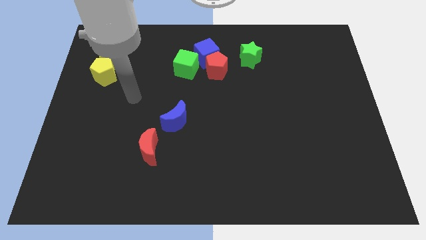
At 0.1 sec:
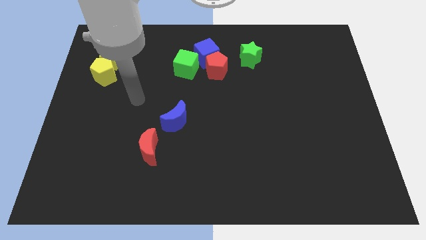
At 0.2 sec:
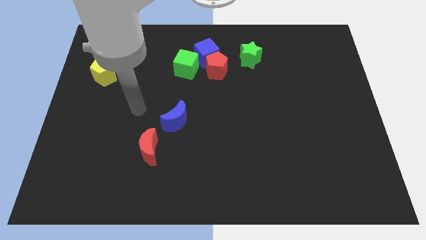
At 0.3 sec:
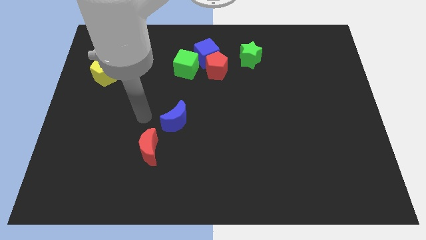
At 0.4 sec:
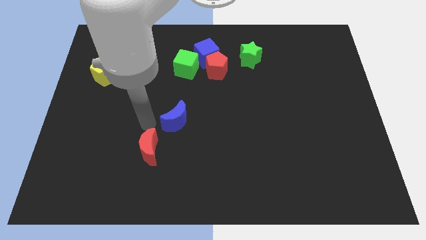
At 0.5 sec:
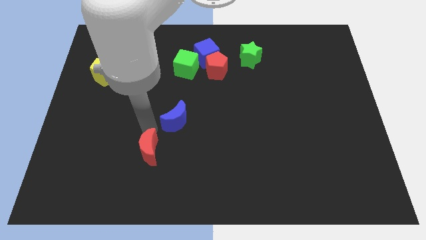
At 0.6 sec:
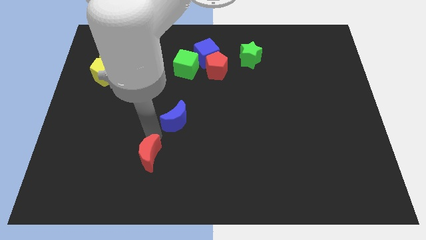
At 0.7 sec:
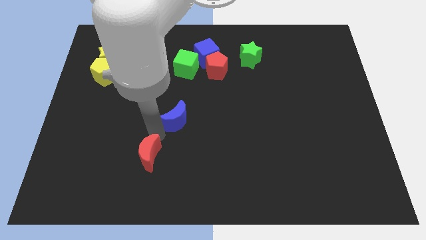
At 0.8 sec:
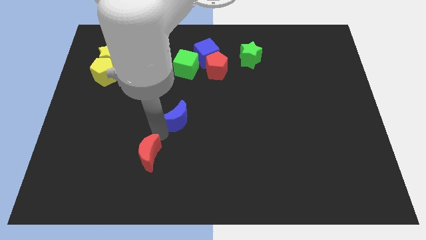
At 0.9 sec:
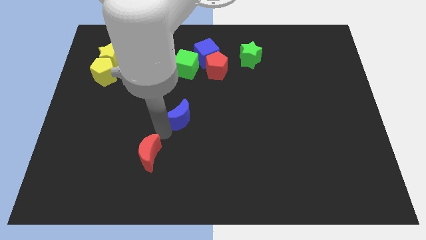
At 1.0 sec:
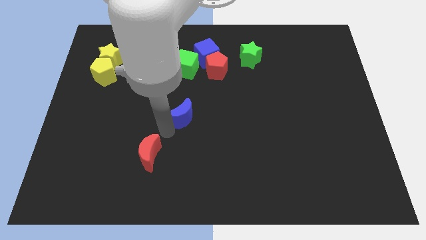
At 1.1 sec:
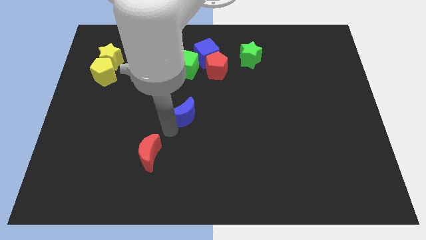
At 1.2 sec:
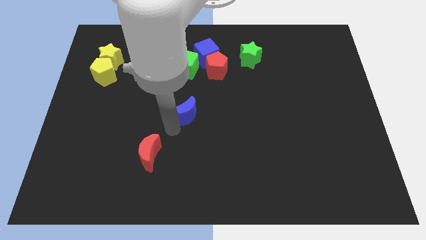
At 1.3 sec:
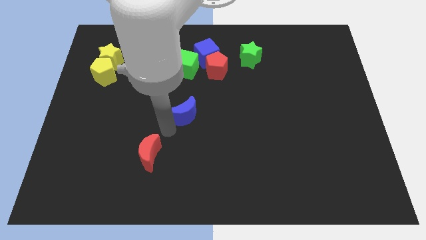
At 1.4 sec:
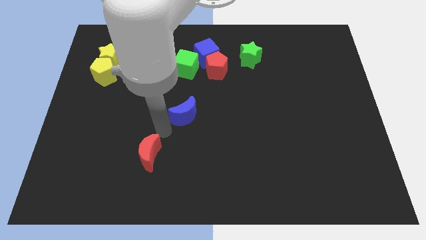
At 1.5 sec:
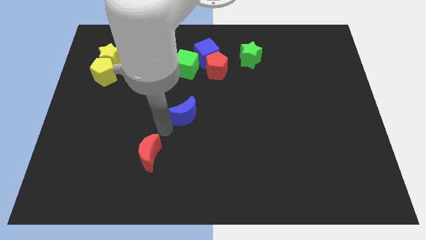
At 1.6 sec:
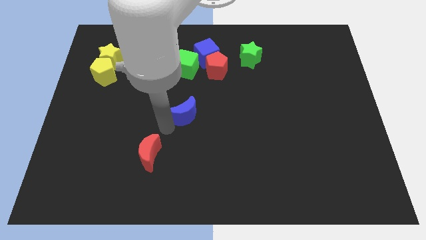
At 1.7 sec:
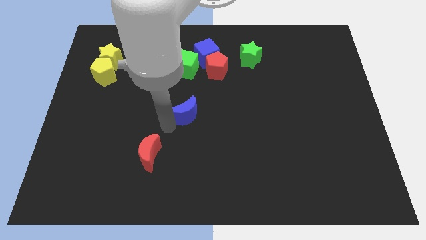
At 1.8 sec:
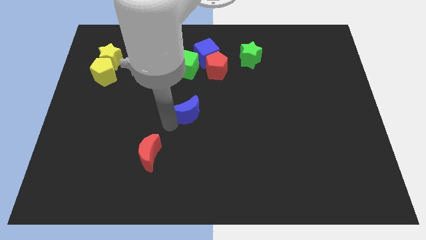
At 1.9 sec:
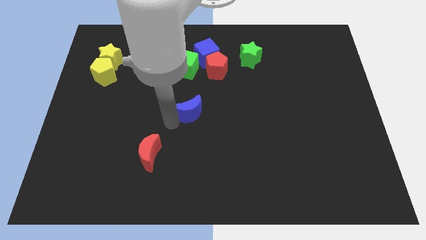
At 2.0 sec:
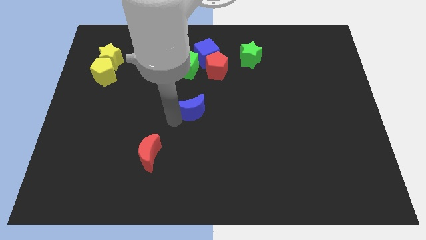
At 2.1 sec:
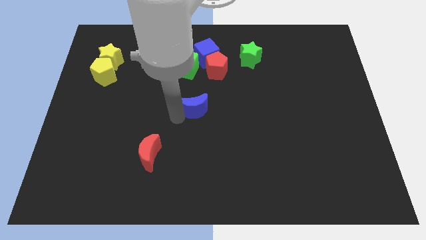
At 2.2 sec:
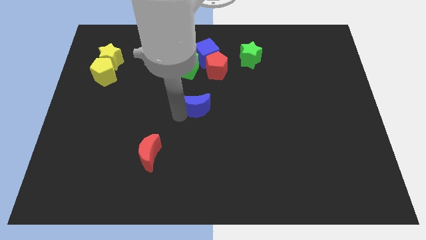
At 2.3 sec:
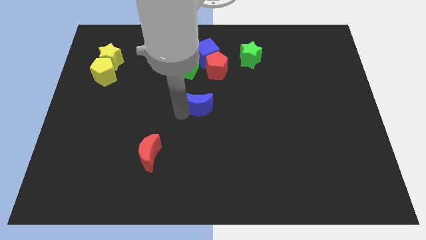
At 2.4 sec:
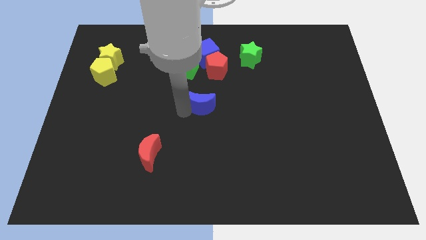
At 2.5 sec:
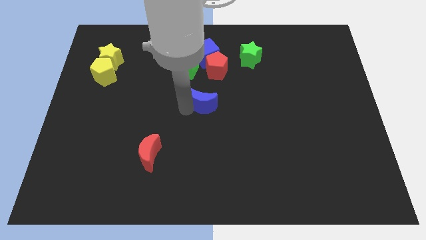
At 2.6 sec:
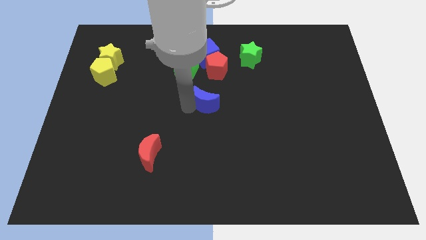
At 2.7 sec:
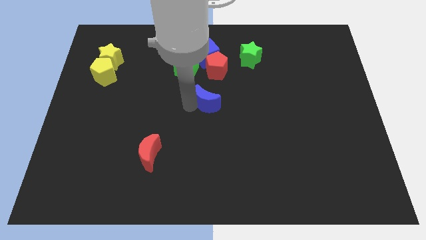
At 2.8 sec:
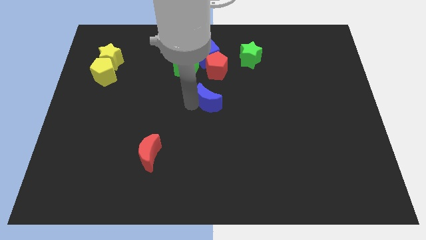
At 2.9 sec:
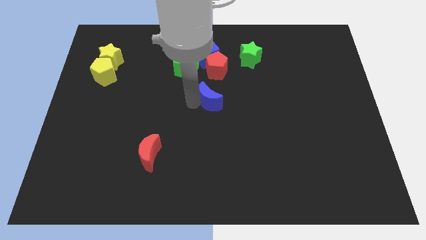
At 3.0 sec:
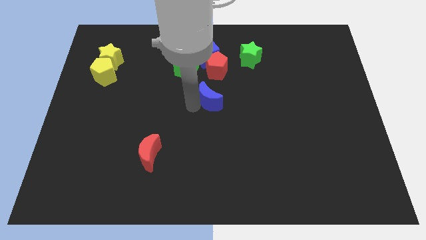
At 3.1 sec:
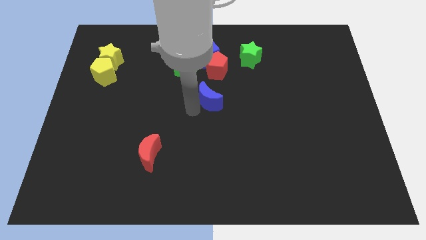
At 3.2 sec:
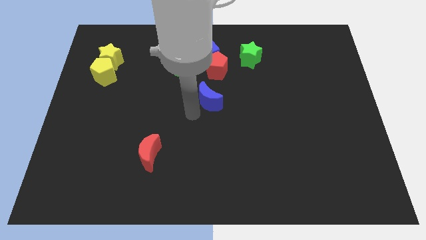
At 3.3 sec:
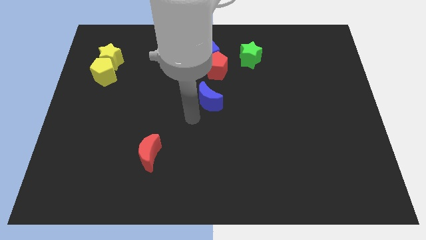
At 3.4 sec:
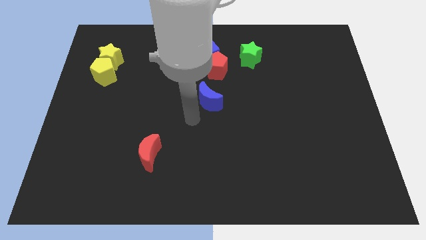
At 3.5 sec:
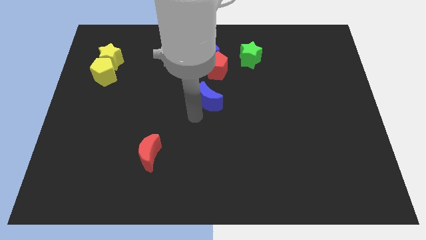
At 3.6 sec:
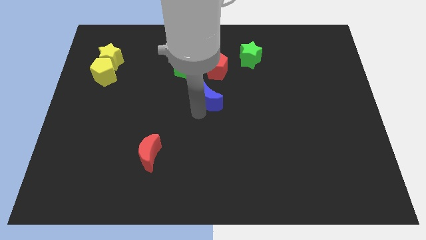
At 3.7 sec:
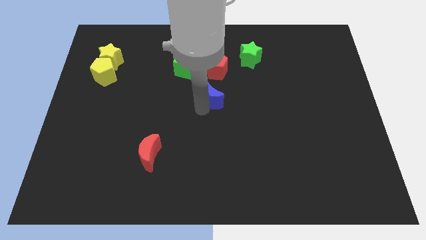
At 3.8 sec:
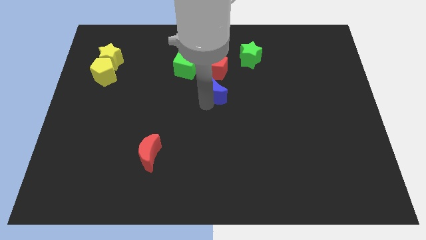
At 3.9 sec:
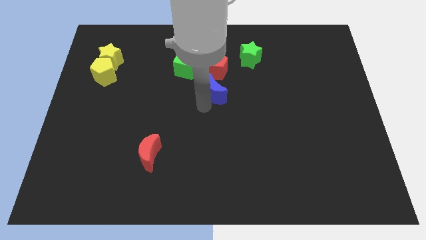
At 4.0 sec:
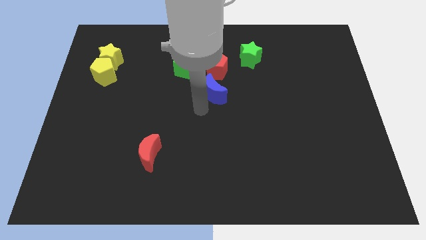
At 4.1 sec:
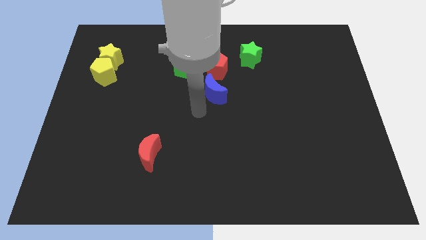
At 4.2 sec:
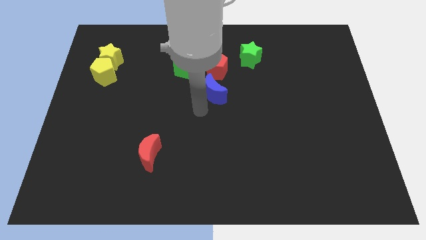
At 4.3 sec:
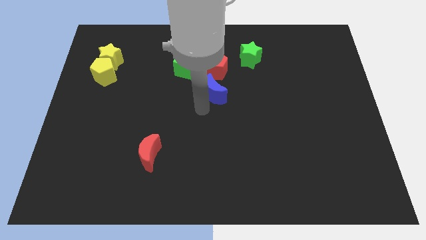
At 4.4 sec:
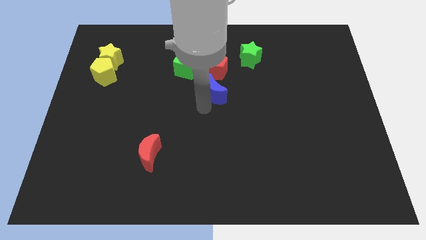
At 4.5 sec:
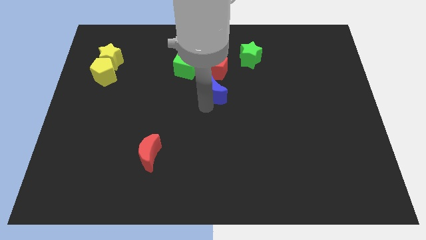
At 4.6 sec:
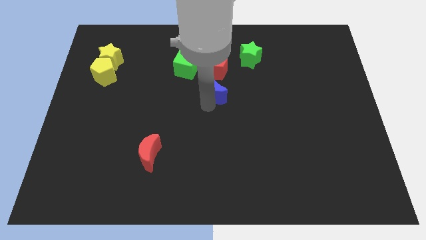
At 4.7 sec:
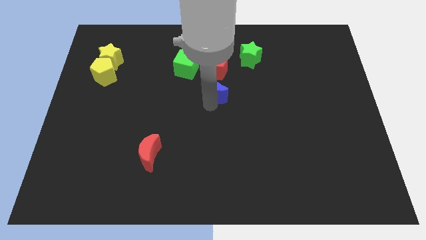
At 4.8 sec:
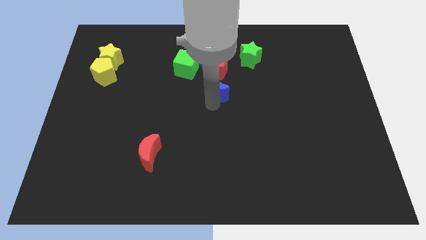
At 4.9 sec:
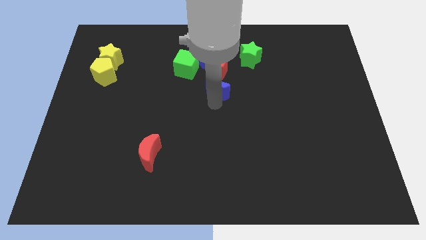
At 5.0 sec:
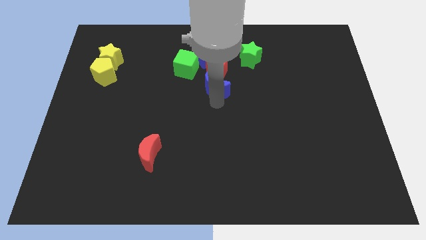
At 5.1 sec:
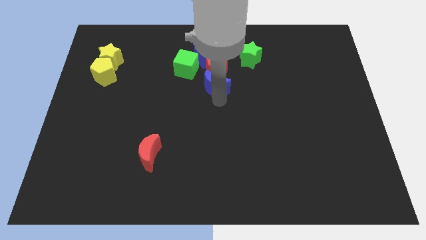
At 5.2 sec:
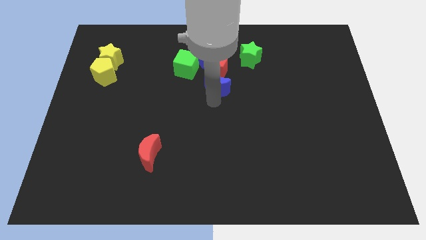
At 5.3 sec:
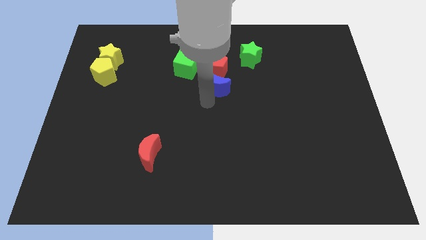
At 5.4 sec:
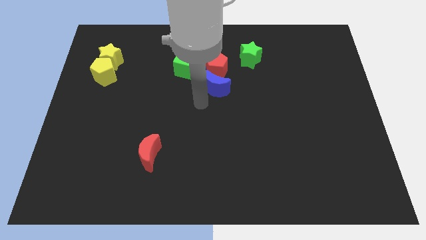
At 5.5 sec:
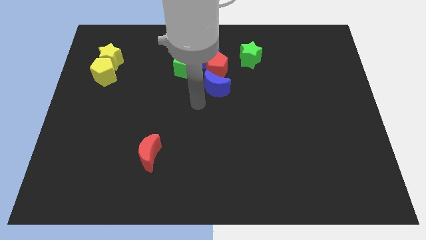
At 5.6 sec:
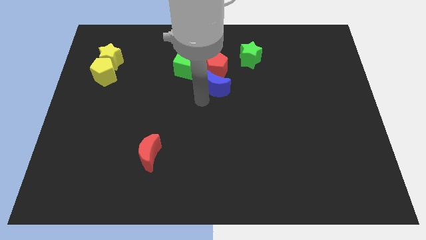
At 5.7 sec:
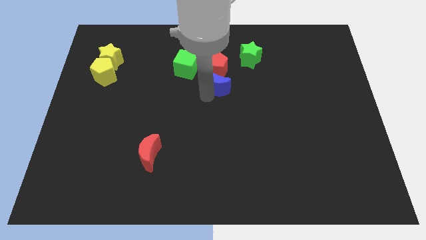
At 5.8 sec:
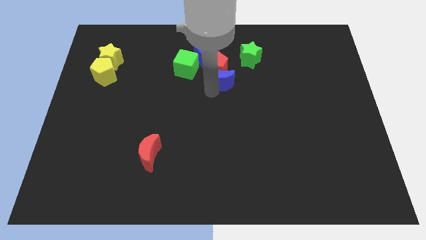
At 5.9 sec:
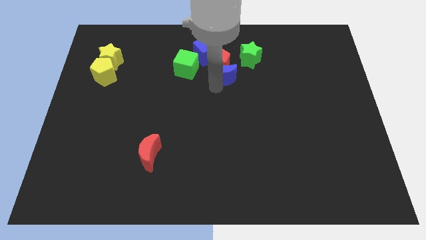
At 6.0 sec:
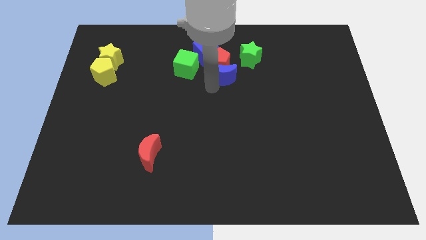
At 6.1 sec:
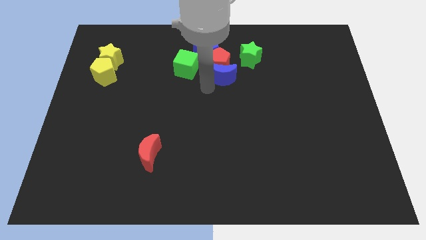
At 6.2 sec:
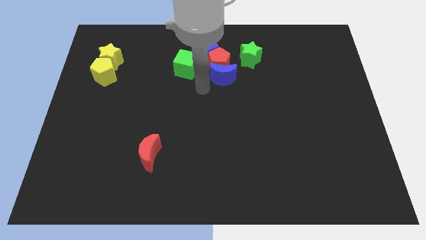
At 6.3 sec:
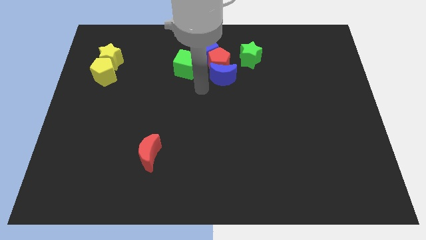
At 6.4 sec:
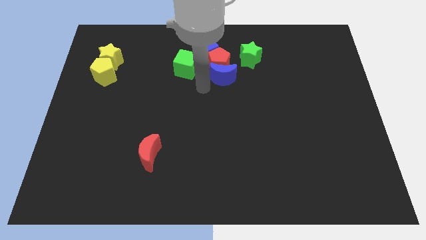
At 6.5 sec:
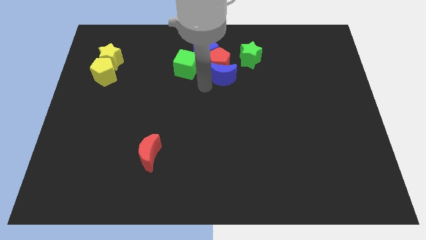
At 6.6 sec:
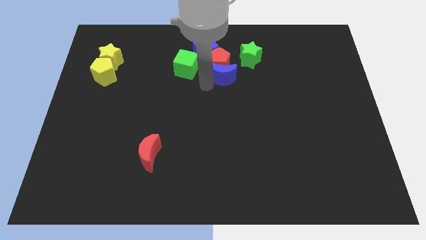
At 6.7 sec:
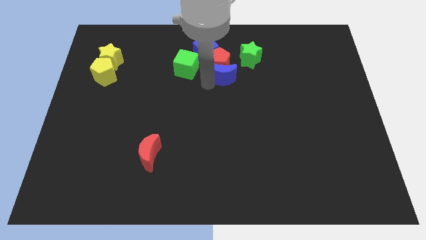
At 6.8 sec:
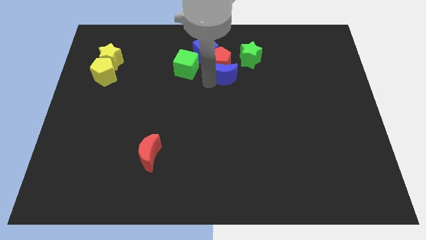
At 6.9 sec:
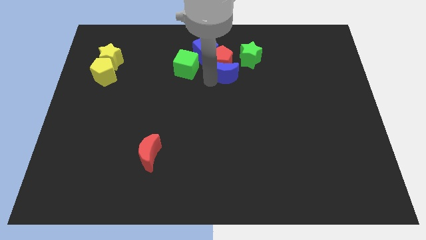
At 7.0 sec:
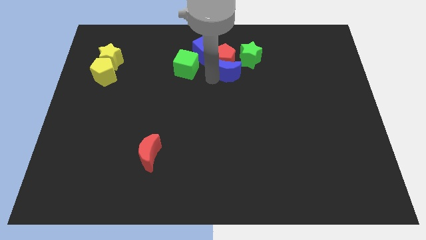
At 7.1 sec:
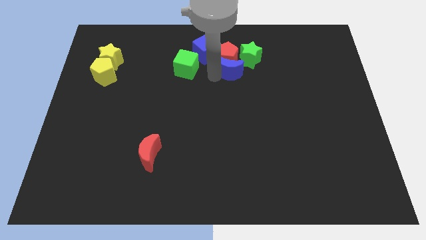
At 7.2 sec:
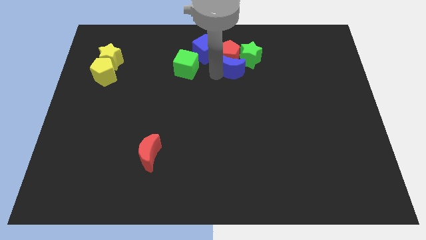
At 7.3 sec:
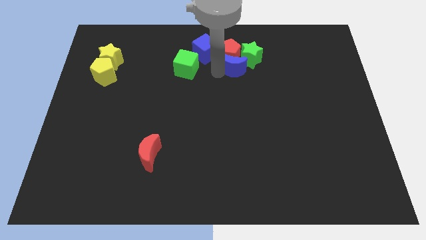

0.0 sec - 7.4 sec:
slide the blue moon towards the green star
